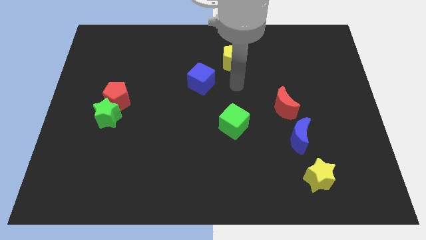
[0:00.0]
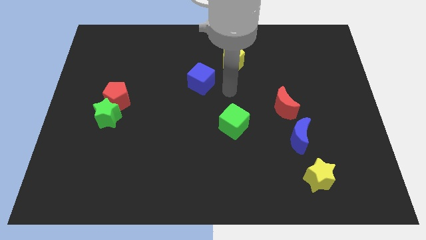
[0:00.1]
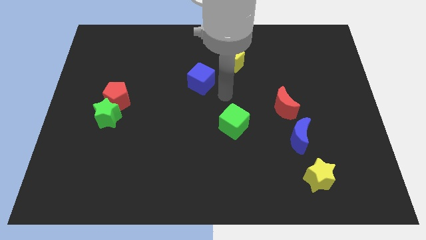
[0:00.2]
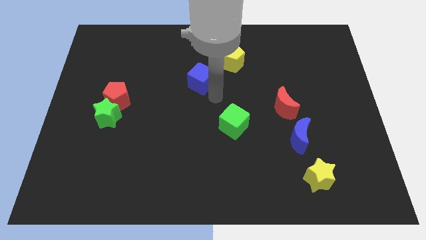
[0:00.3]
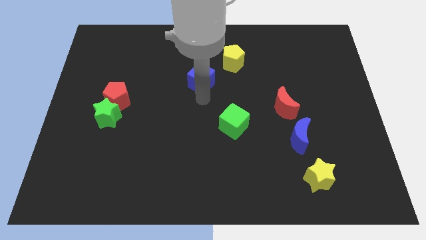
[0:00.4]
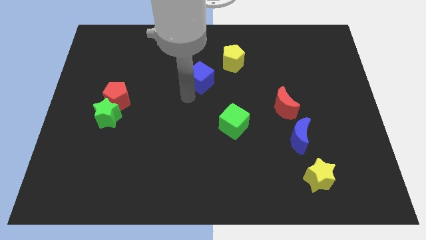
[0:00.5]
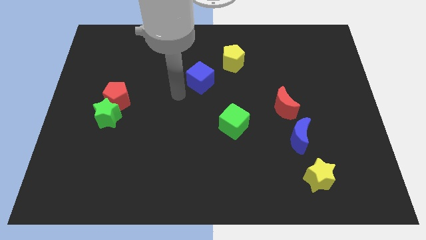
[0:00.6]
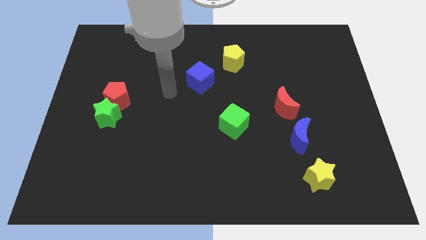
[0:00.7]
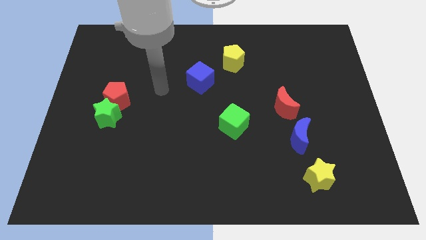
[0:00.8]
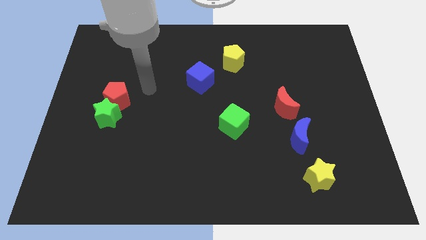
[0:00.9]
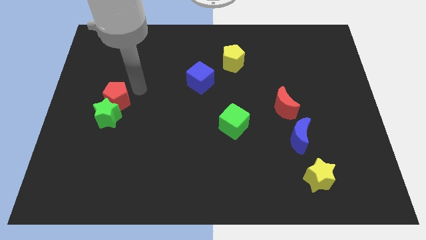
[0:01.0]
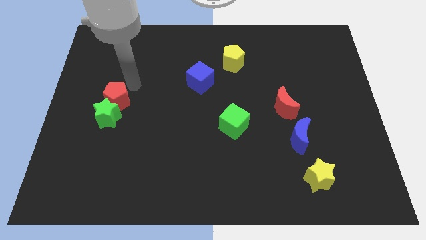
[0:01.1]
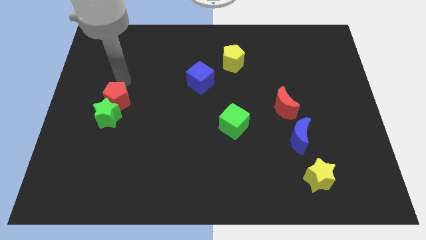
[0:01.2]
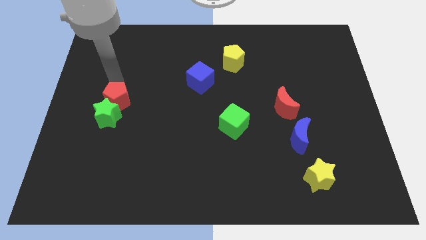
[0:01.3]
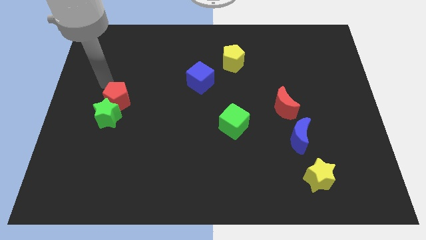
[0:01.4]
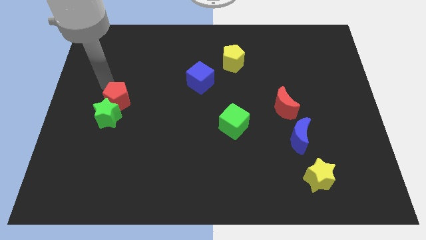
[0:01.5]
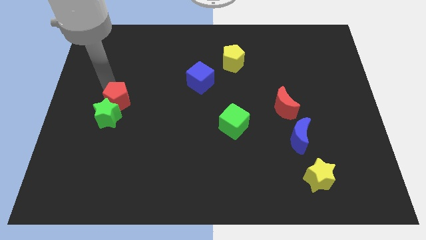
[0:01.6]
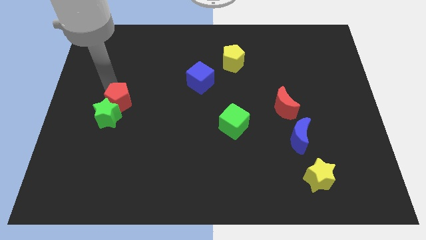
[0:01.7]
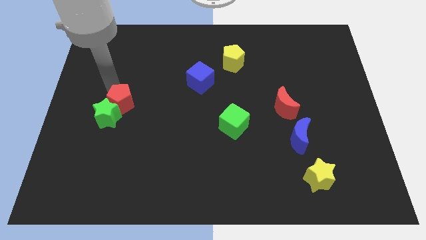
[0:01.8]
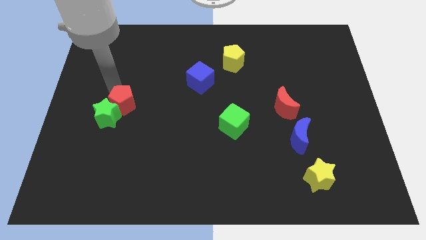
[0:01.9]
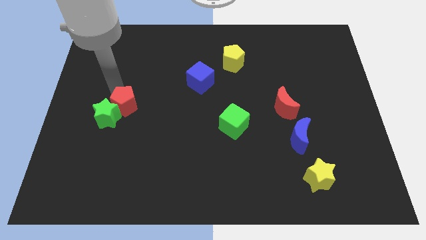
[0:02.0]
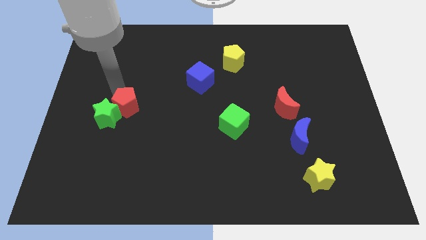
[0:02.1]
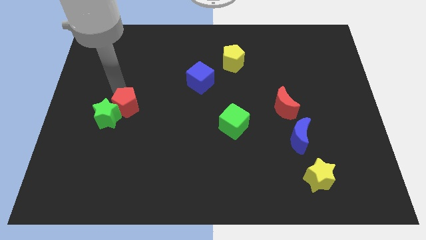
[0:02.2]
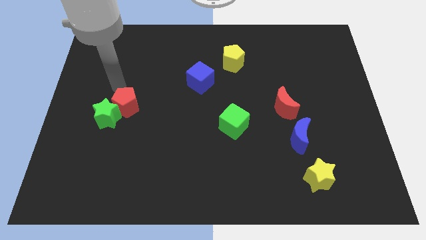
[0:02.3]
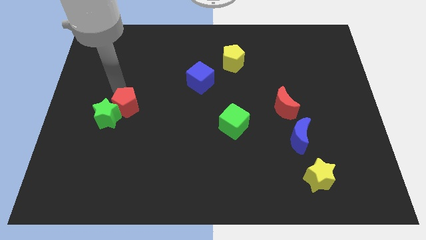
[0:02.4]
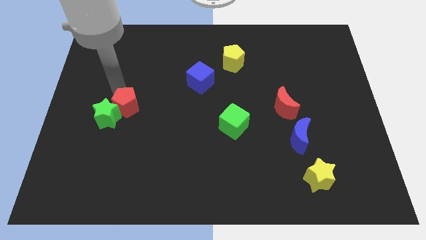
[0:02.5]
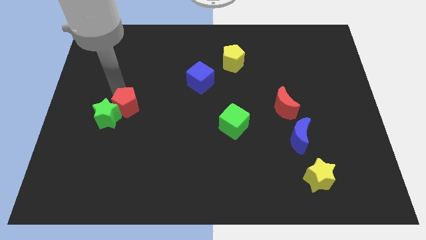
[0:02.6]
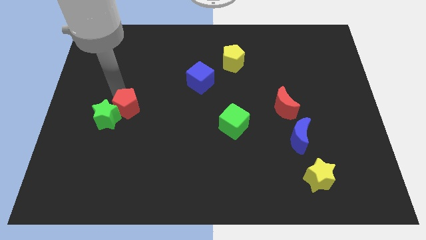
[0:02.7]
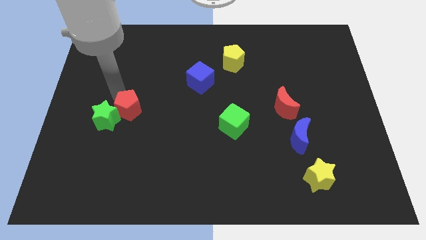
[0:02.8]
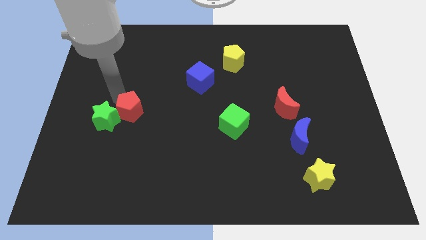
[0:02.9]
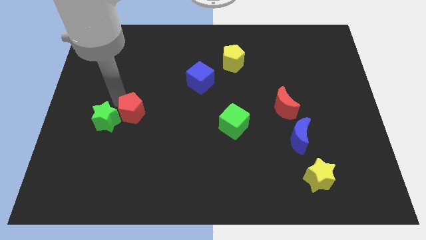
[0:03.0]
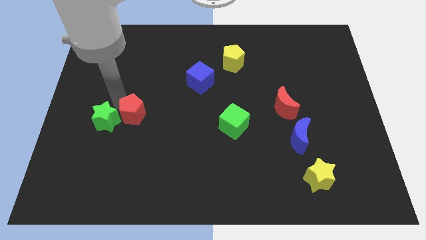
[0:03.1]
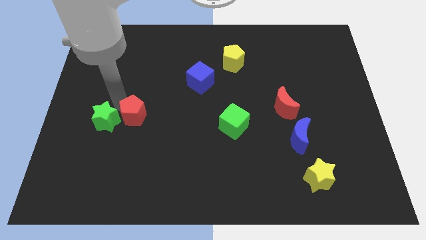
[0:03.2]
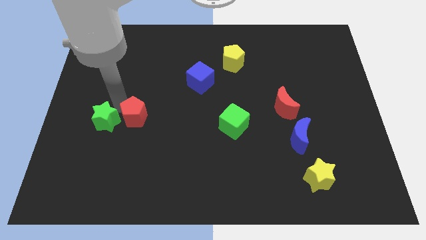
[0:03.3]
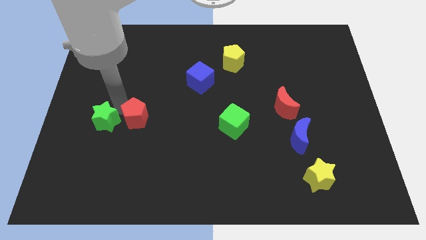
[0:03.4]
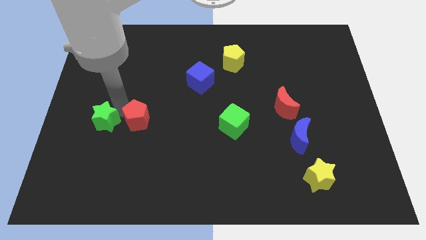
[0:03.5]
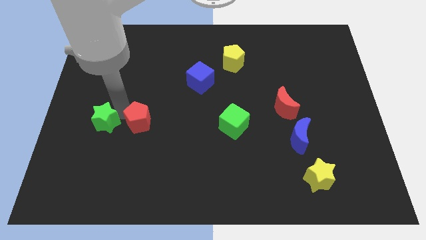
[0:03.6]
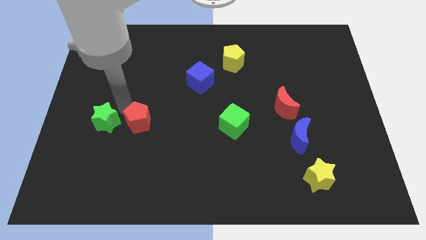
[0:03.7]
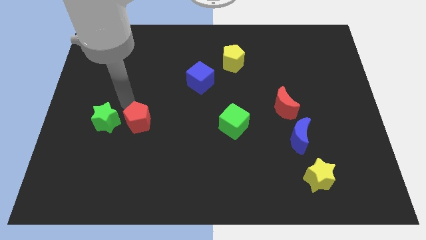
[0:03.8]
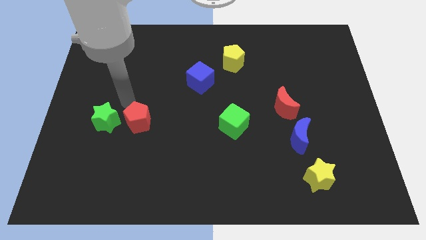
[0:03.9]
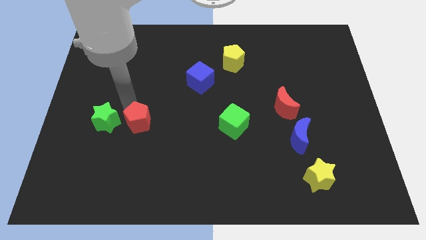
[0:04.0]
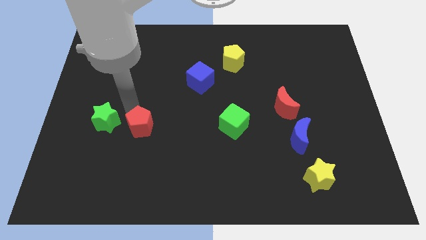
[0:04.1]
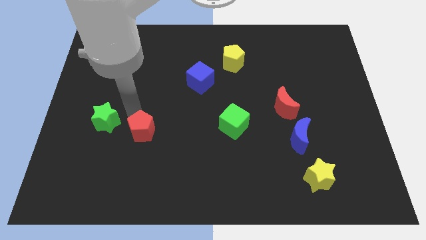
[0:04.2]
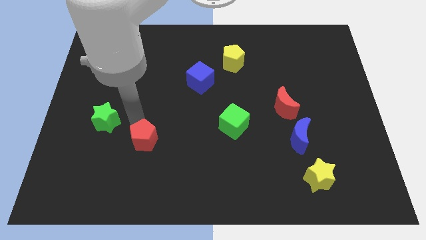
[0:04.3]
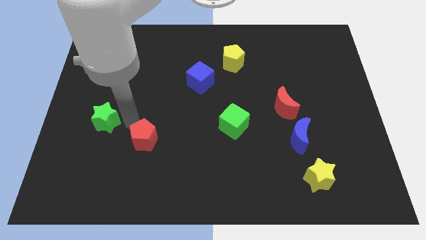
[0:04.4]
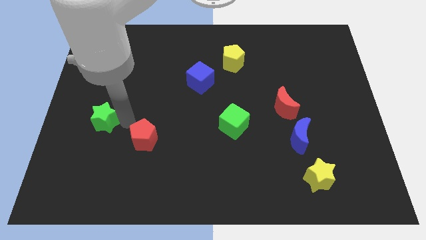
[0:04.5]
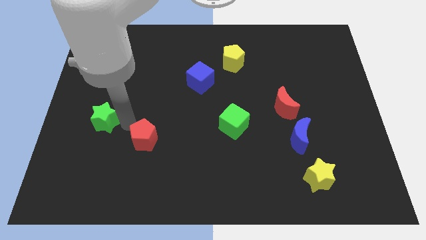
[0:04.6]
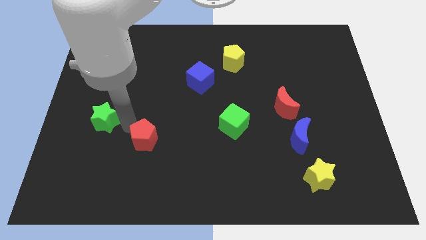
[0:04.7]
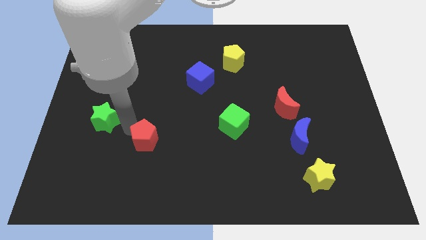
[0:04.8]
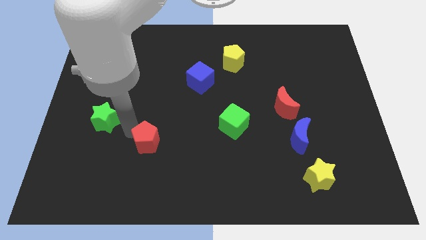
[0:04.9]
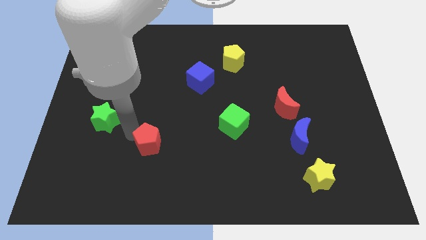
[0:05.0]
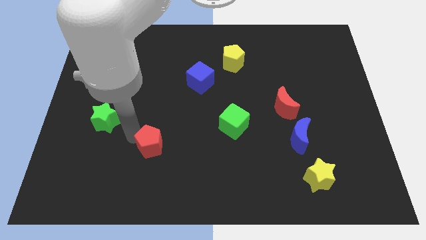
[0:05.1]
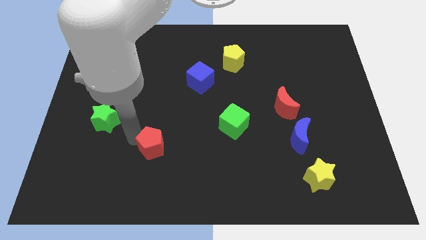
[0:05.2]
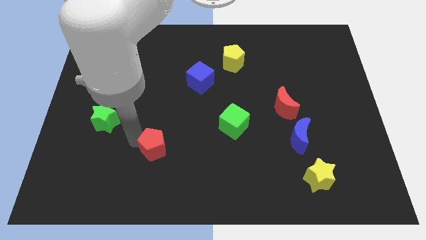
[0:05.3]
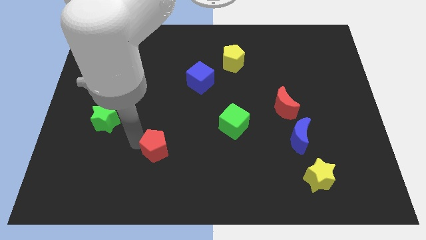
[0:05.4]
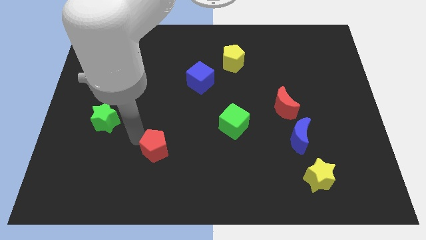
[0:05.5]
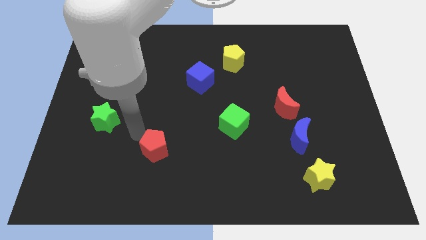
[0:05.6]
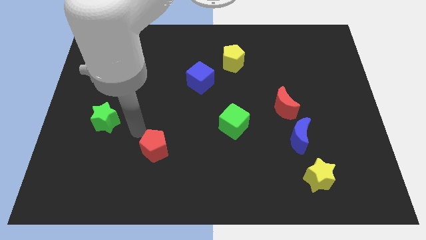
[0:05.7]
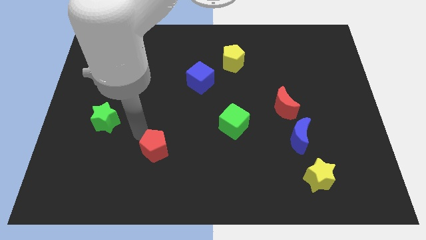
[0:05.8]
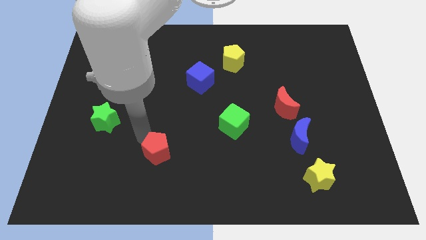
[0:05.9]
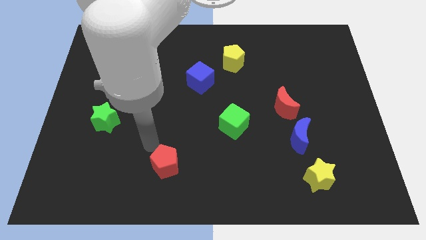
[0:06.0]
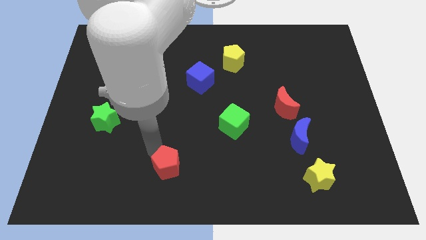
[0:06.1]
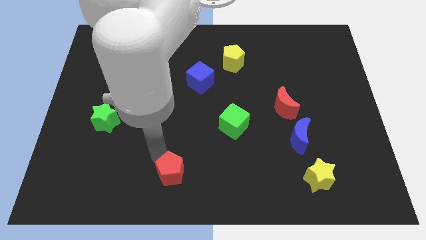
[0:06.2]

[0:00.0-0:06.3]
move the red pentagon to the bottom
